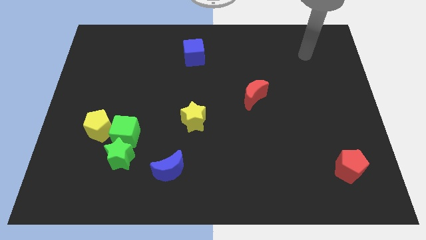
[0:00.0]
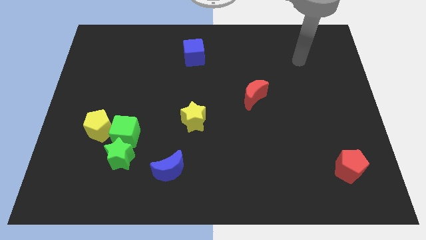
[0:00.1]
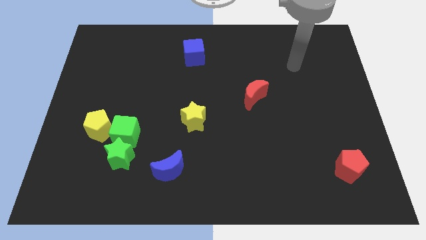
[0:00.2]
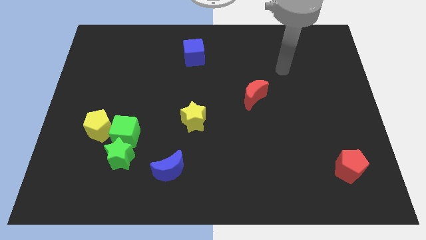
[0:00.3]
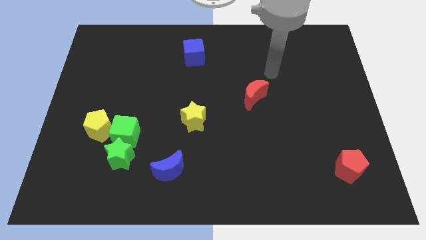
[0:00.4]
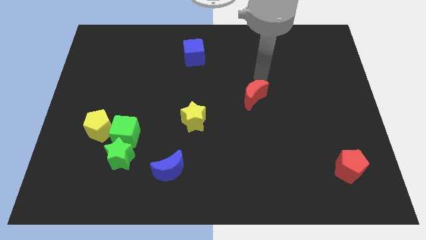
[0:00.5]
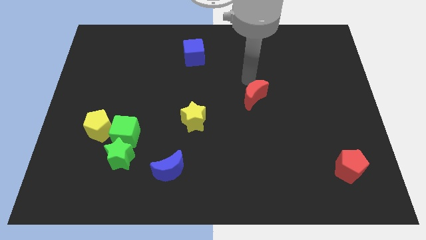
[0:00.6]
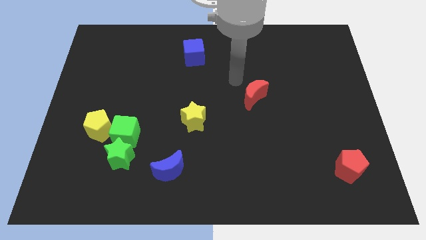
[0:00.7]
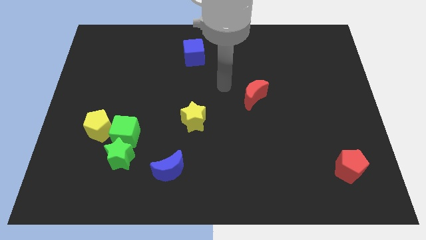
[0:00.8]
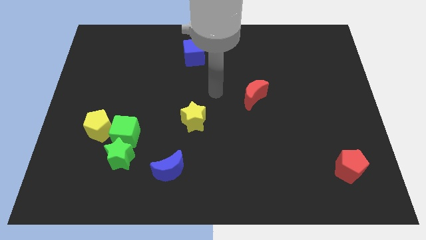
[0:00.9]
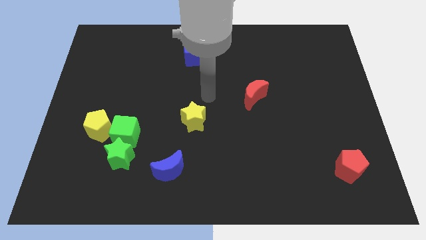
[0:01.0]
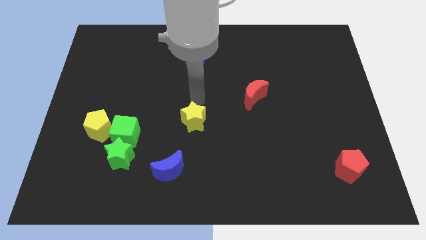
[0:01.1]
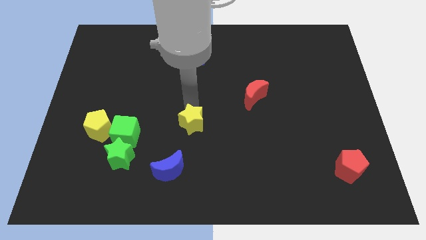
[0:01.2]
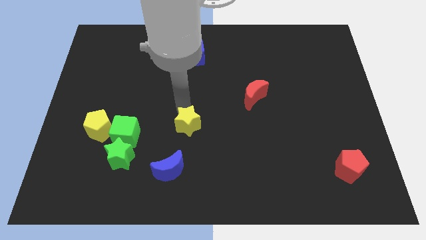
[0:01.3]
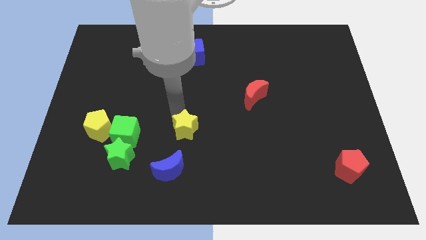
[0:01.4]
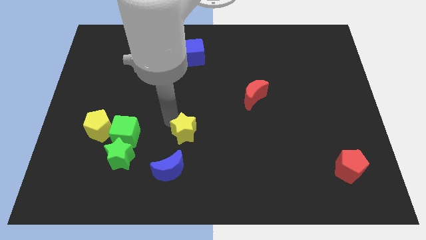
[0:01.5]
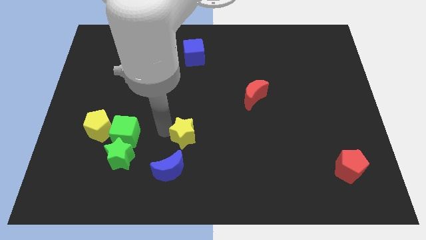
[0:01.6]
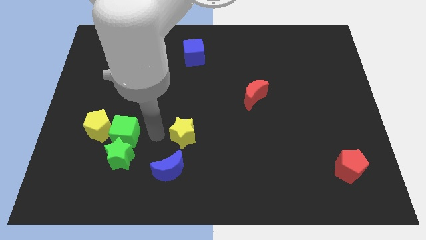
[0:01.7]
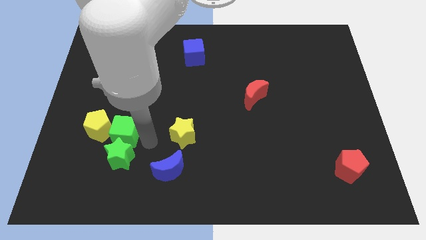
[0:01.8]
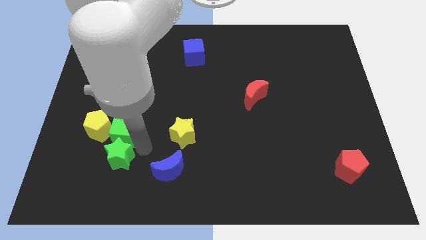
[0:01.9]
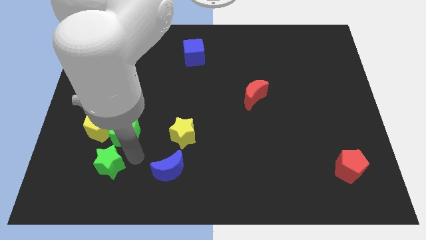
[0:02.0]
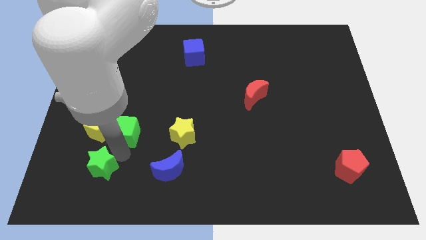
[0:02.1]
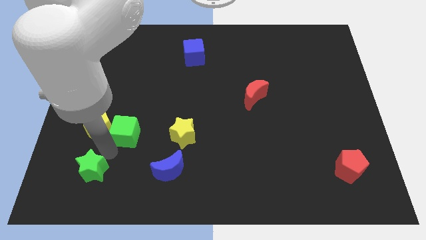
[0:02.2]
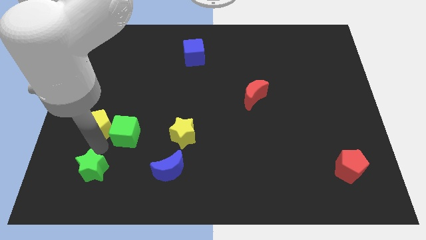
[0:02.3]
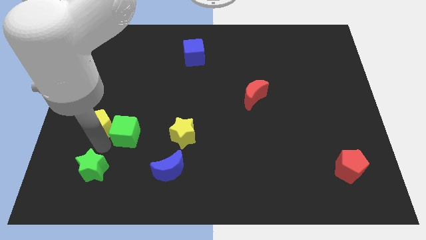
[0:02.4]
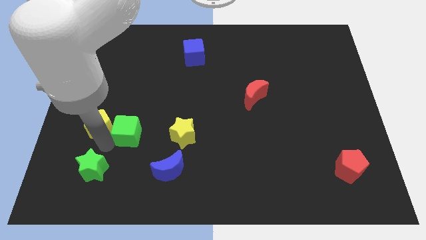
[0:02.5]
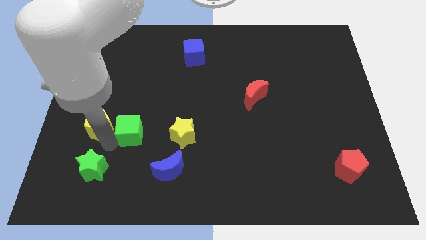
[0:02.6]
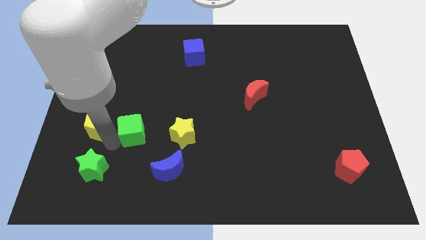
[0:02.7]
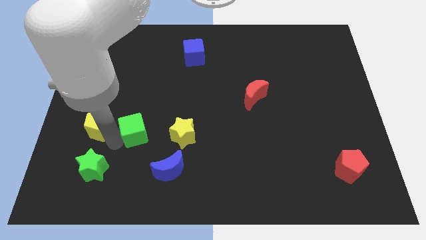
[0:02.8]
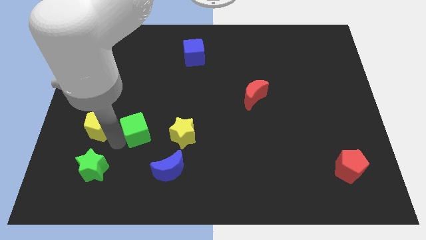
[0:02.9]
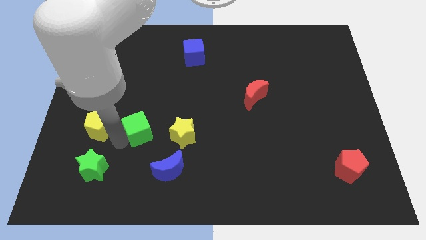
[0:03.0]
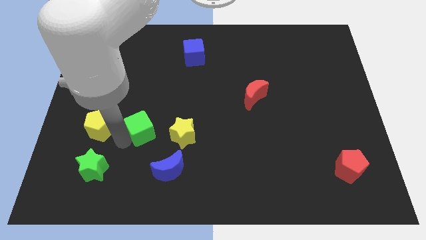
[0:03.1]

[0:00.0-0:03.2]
pull the green cube apart from the green star and yellow pentagon

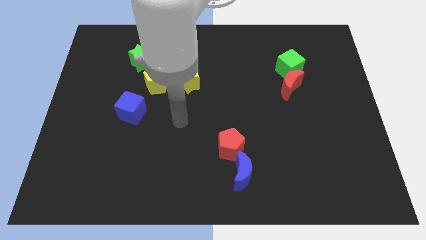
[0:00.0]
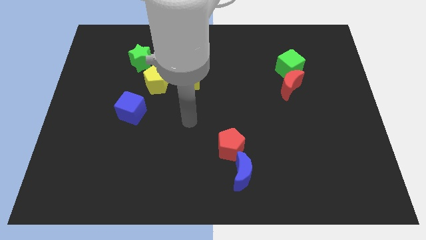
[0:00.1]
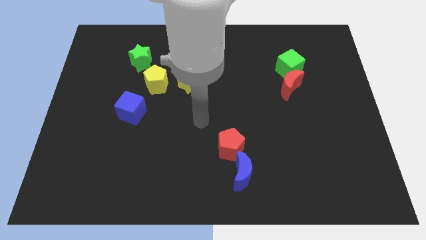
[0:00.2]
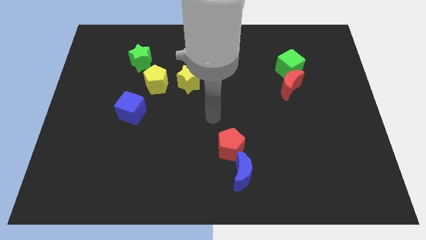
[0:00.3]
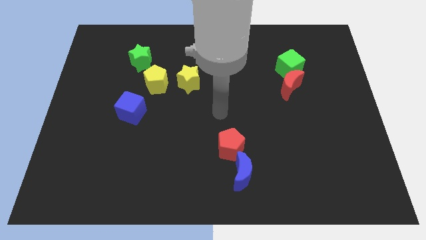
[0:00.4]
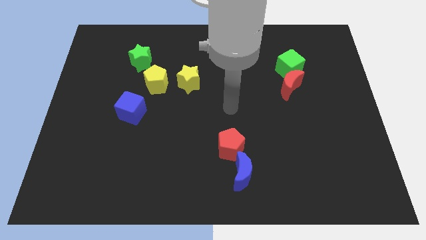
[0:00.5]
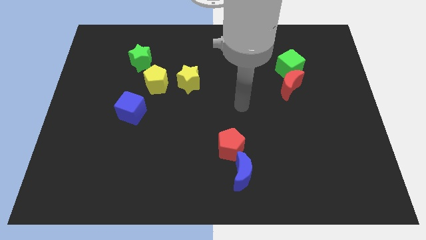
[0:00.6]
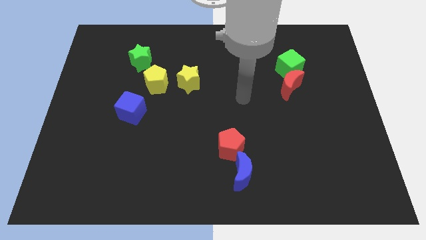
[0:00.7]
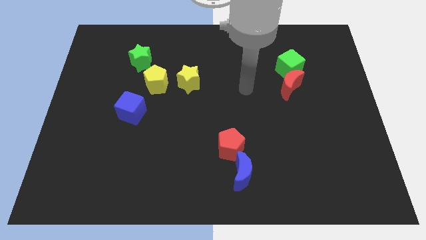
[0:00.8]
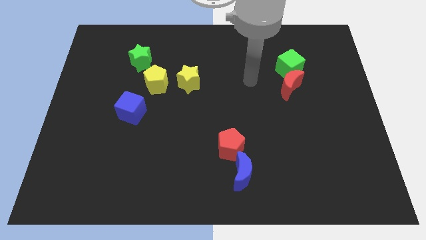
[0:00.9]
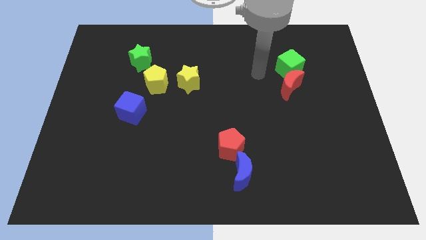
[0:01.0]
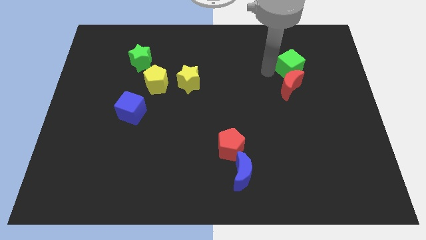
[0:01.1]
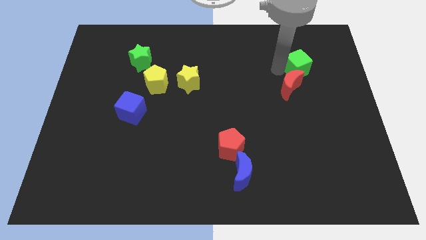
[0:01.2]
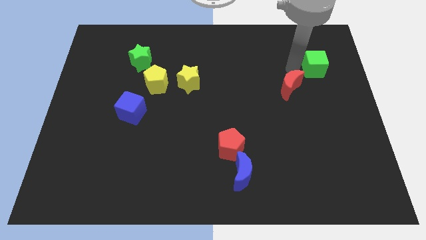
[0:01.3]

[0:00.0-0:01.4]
pull the red moon apart from the green cube

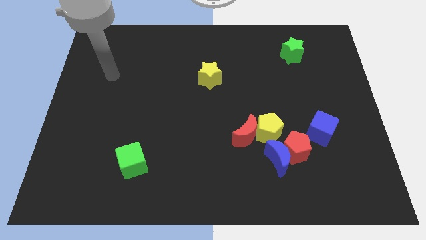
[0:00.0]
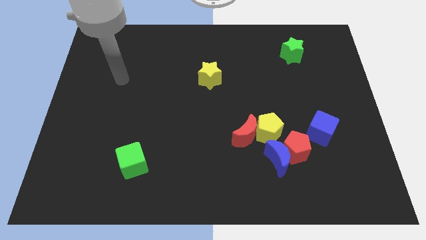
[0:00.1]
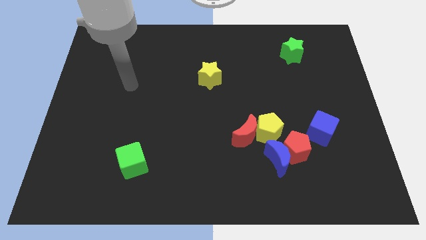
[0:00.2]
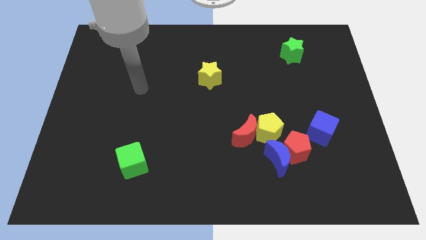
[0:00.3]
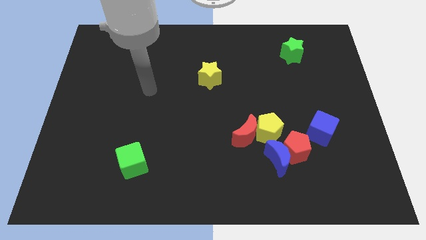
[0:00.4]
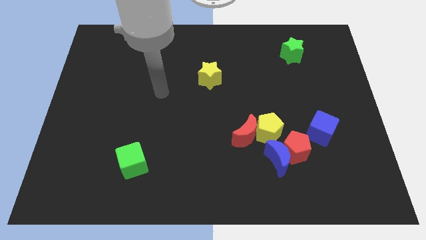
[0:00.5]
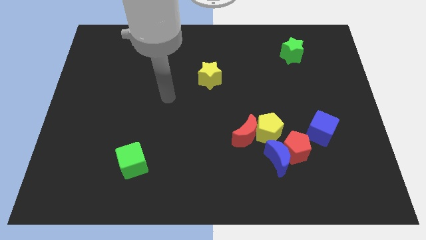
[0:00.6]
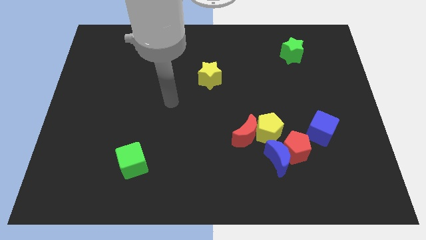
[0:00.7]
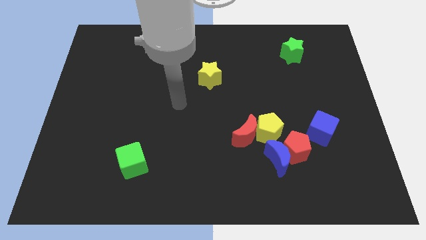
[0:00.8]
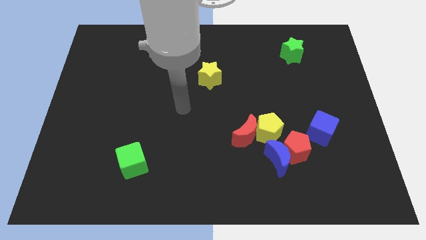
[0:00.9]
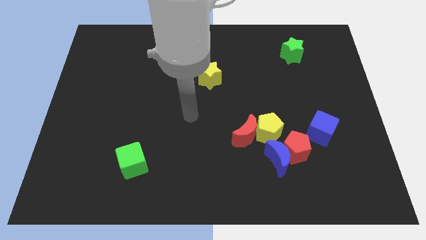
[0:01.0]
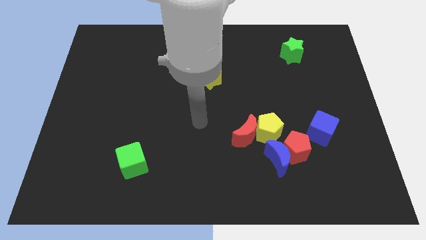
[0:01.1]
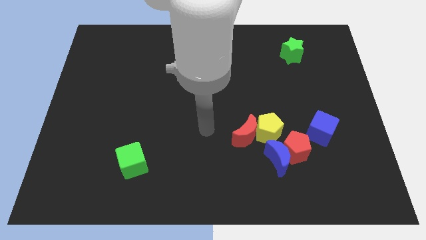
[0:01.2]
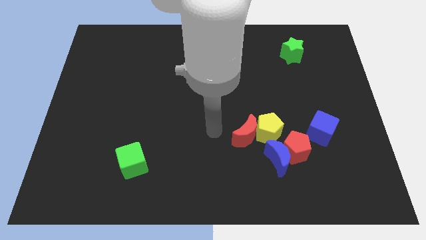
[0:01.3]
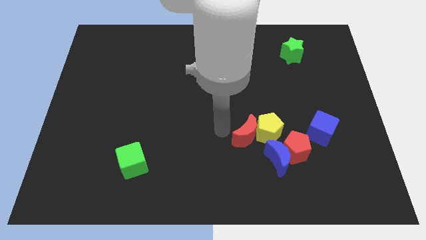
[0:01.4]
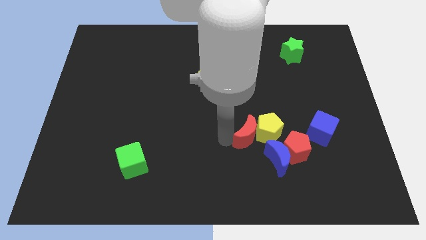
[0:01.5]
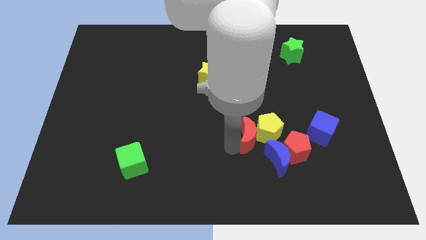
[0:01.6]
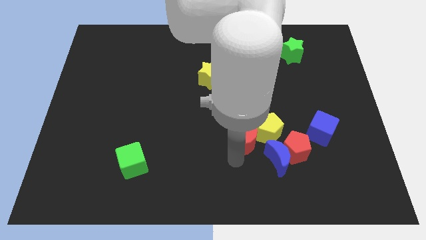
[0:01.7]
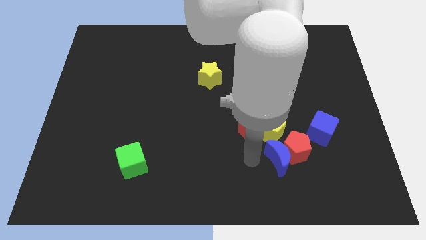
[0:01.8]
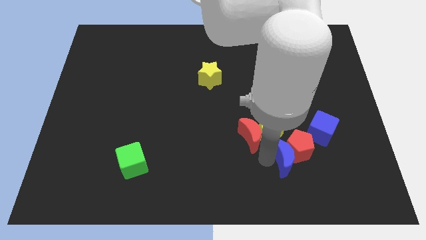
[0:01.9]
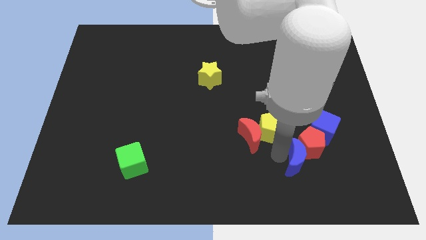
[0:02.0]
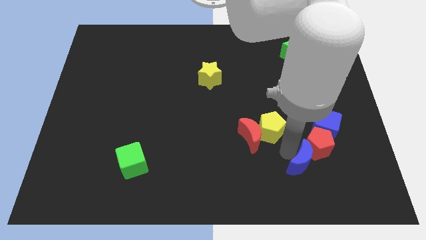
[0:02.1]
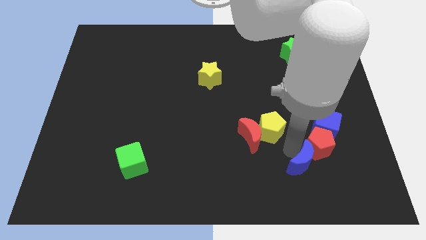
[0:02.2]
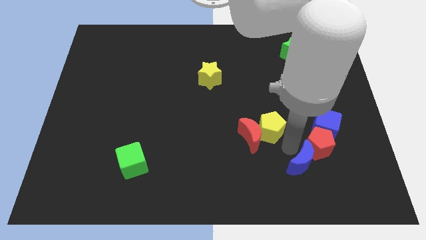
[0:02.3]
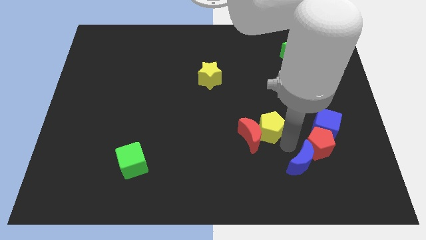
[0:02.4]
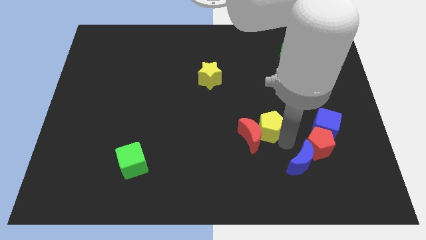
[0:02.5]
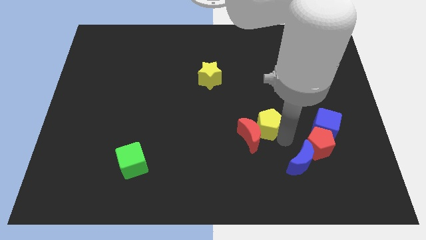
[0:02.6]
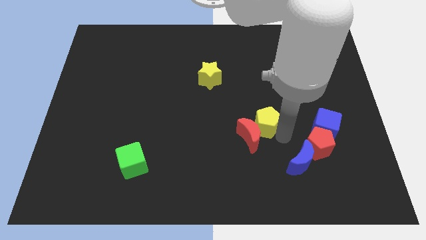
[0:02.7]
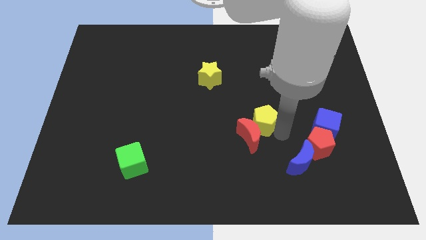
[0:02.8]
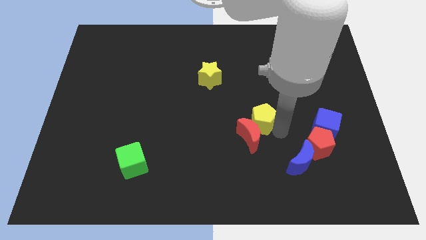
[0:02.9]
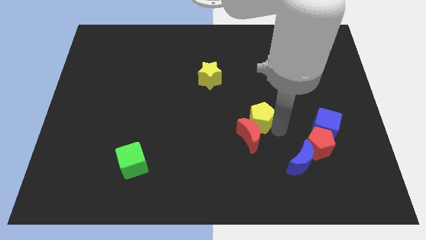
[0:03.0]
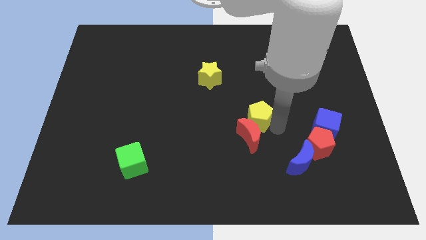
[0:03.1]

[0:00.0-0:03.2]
move the yellow pentagon away from the group of blocks

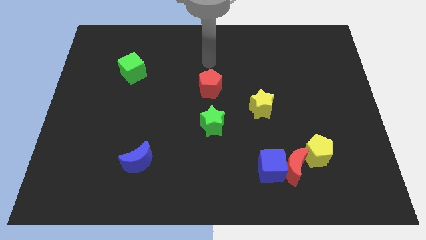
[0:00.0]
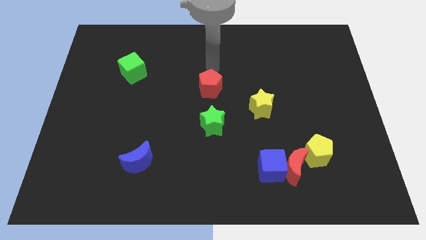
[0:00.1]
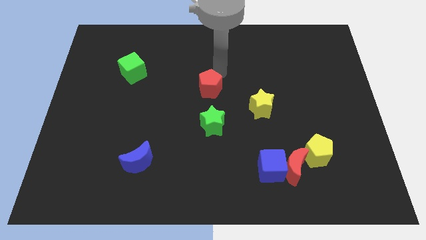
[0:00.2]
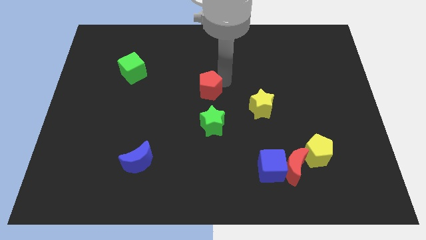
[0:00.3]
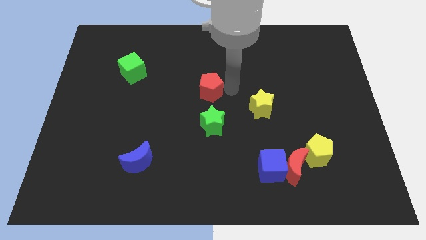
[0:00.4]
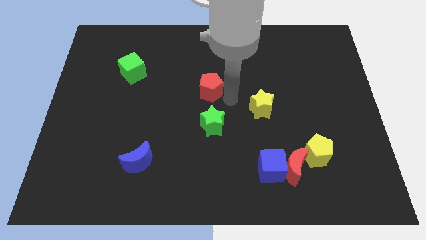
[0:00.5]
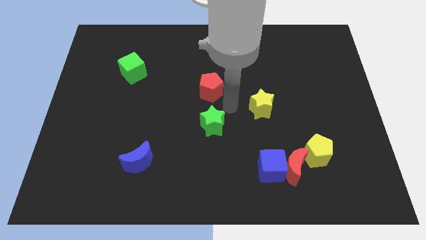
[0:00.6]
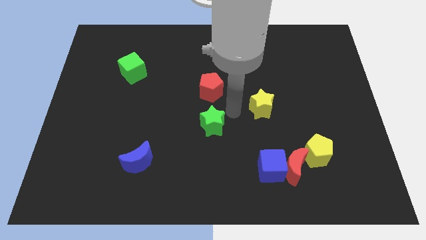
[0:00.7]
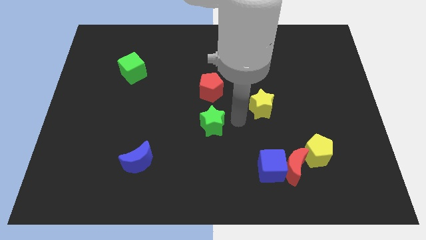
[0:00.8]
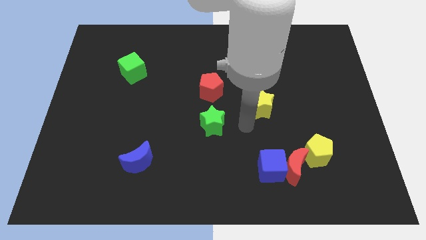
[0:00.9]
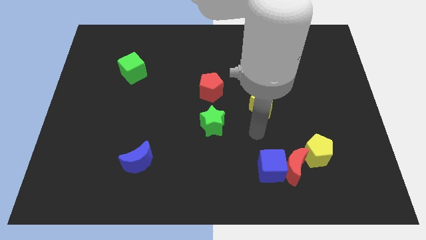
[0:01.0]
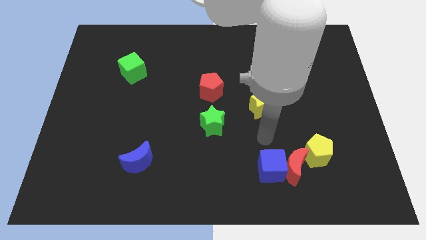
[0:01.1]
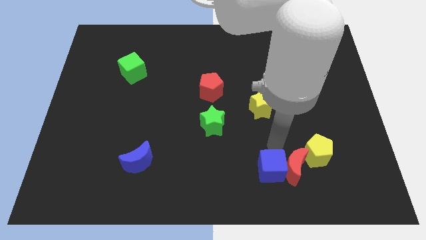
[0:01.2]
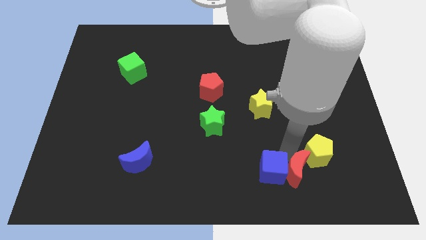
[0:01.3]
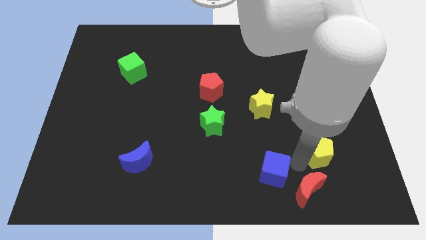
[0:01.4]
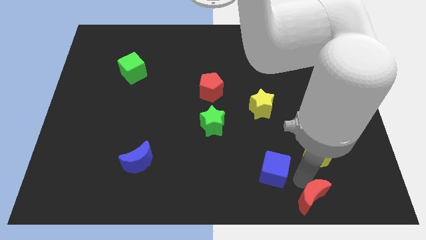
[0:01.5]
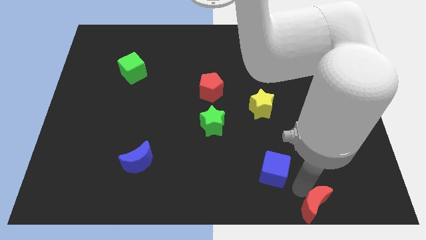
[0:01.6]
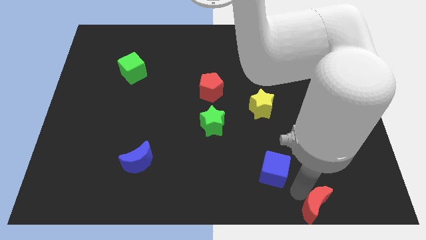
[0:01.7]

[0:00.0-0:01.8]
pull the blue cube apart from the red moon

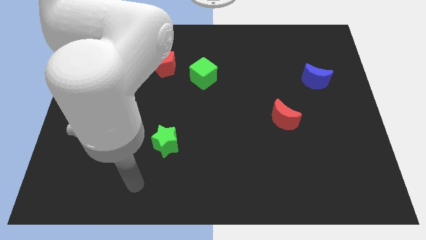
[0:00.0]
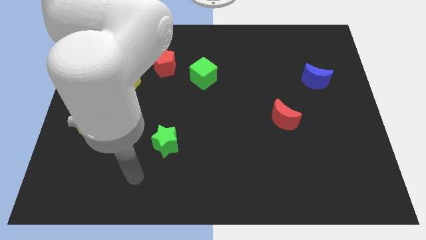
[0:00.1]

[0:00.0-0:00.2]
pull the red pentagon apart from the yellow pentagon
